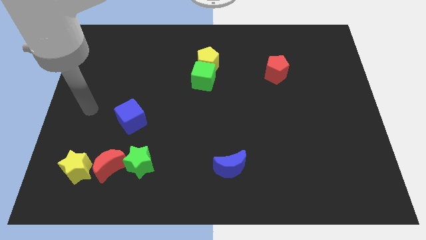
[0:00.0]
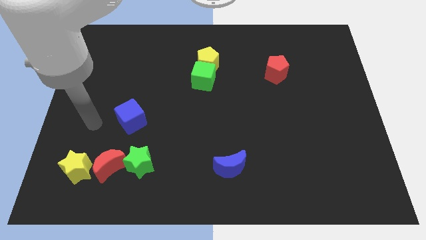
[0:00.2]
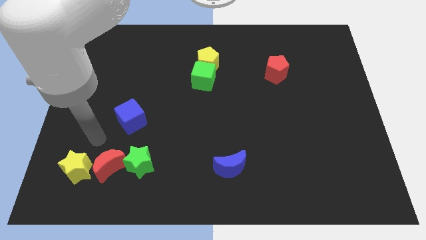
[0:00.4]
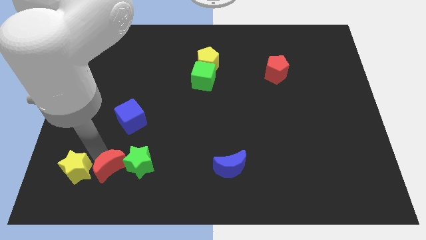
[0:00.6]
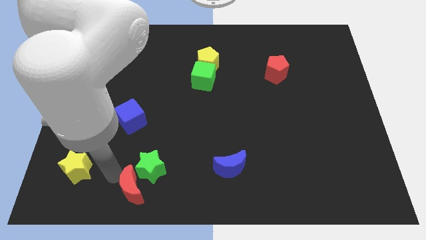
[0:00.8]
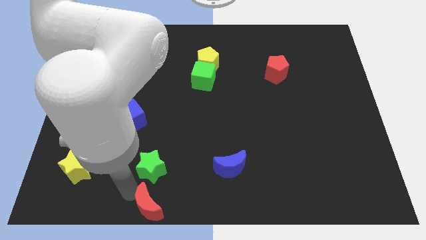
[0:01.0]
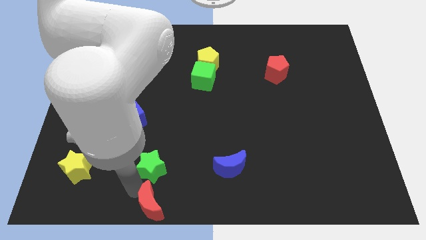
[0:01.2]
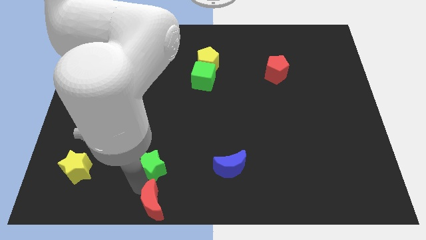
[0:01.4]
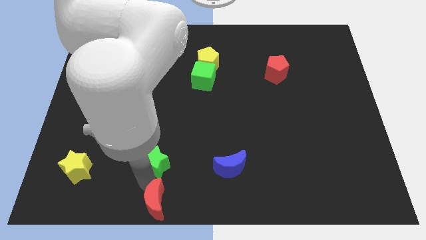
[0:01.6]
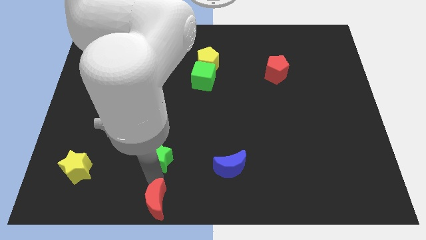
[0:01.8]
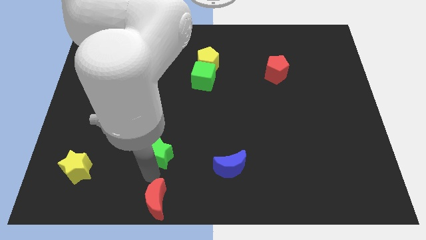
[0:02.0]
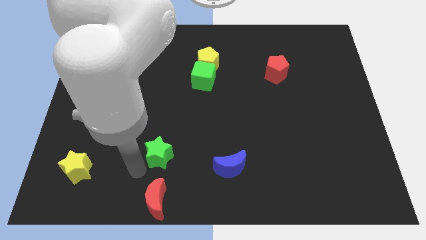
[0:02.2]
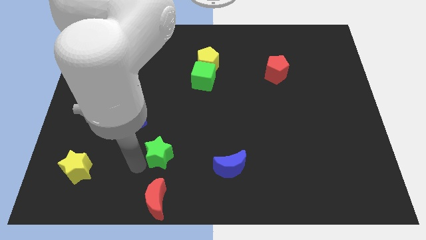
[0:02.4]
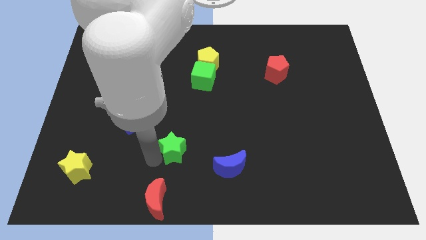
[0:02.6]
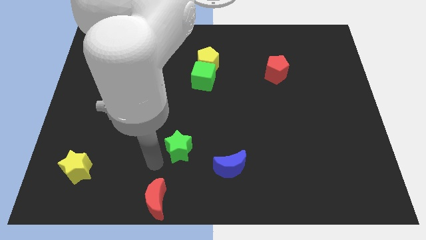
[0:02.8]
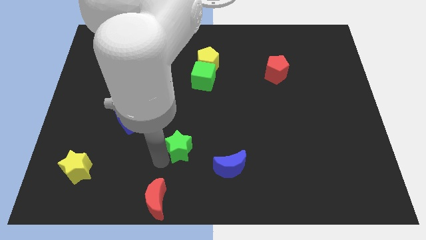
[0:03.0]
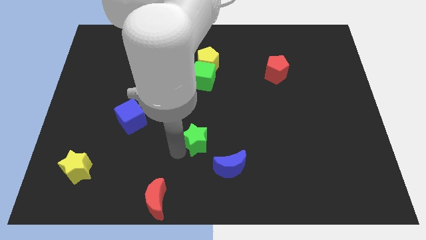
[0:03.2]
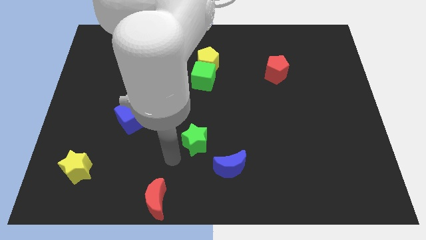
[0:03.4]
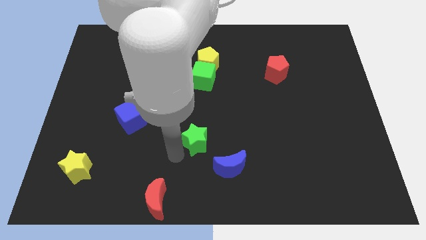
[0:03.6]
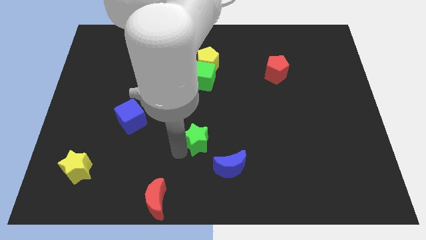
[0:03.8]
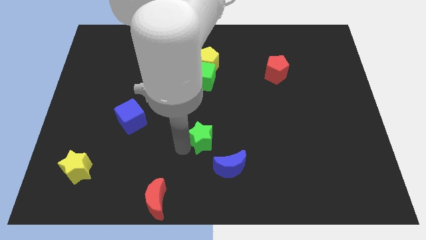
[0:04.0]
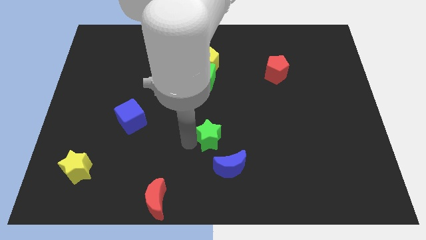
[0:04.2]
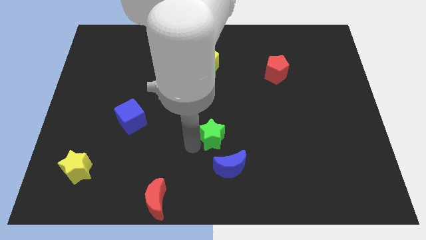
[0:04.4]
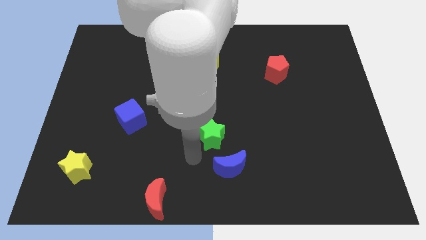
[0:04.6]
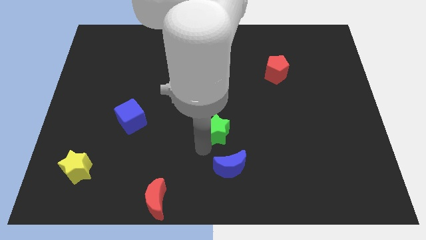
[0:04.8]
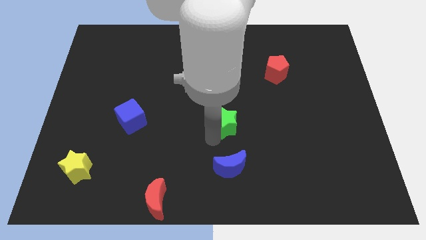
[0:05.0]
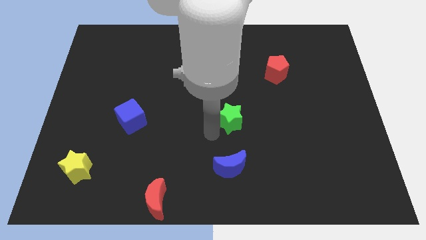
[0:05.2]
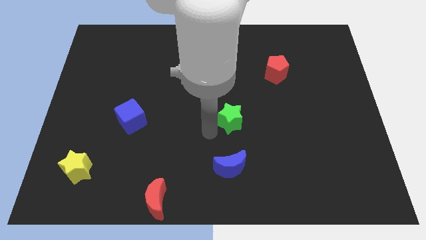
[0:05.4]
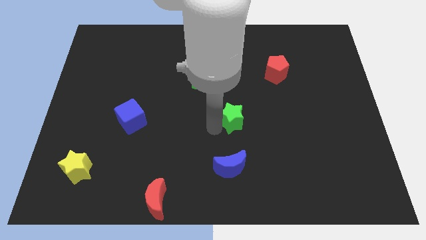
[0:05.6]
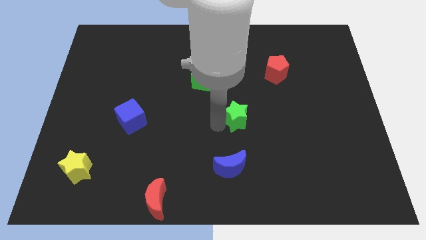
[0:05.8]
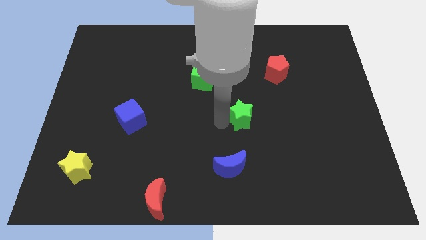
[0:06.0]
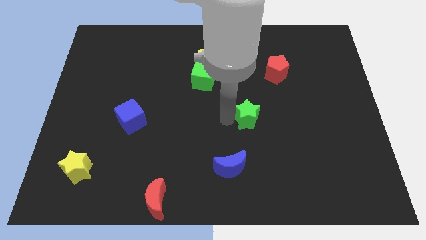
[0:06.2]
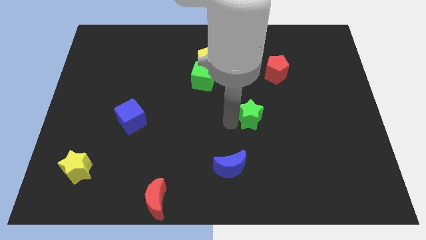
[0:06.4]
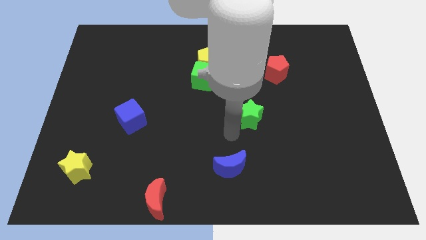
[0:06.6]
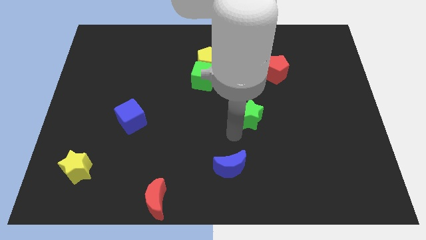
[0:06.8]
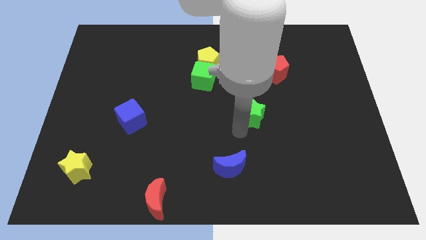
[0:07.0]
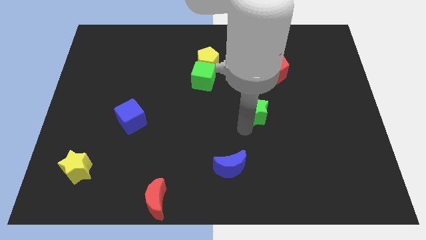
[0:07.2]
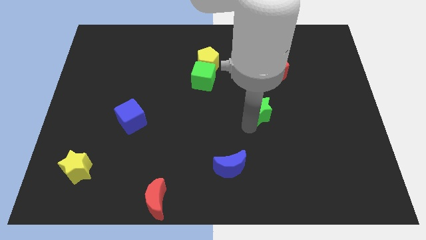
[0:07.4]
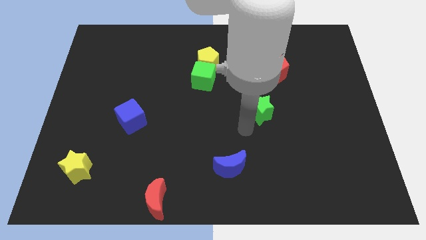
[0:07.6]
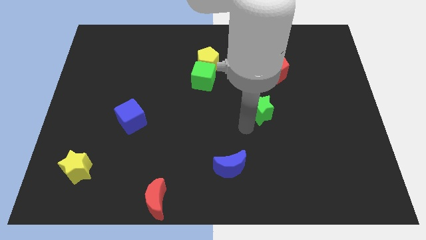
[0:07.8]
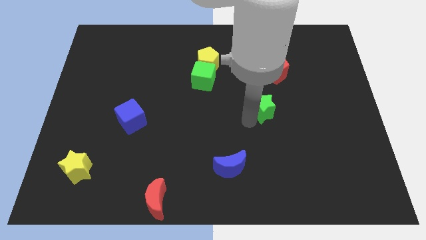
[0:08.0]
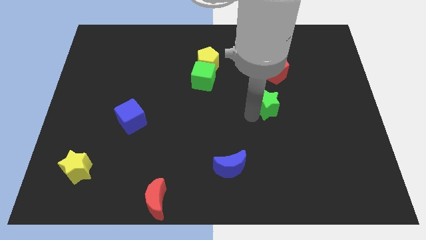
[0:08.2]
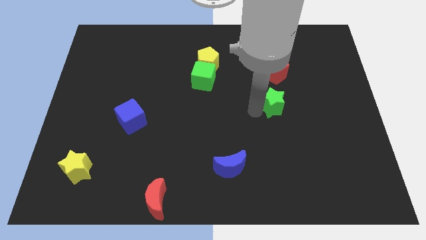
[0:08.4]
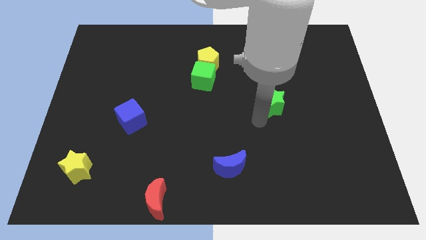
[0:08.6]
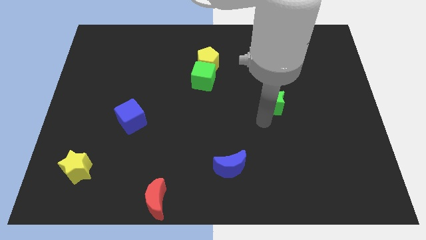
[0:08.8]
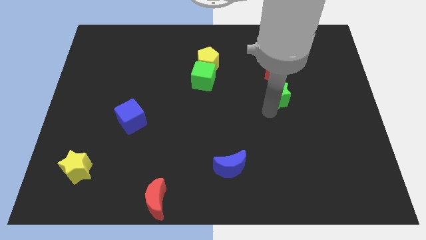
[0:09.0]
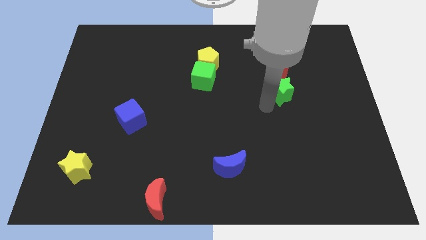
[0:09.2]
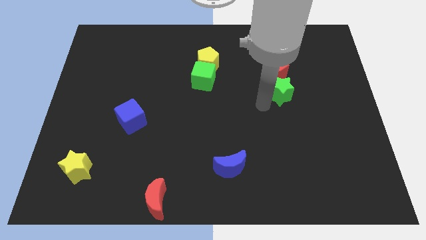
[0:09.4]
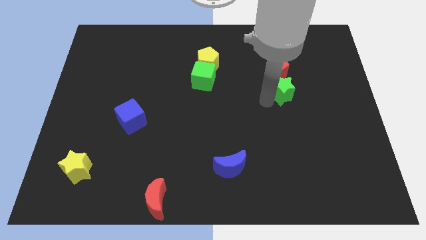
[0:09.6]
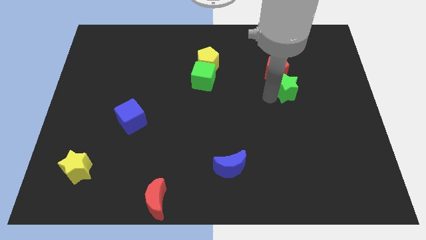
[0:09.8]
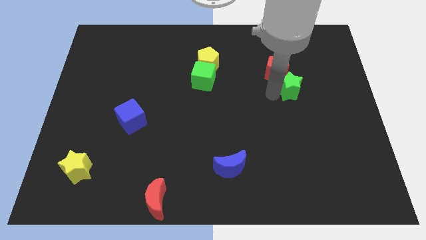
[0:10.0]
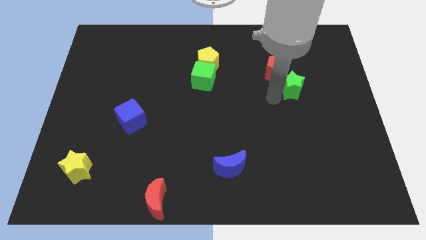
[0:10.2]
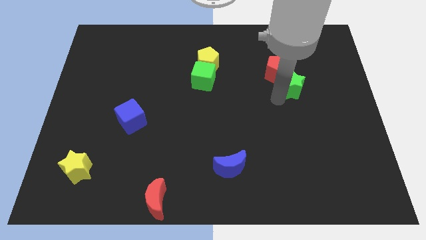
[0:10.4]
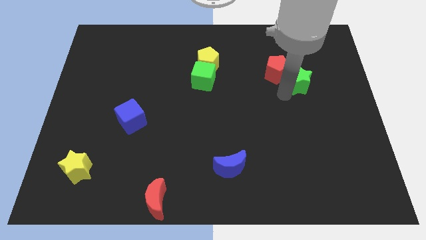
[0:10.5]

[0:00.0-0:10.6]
put the green star to the right of the red pentagon

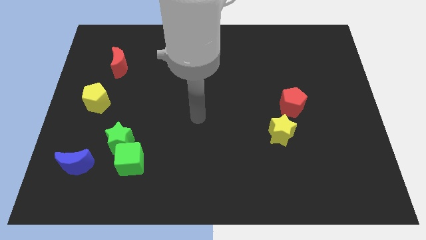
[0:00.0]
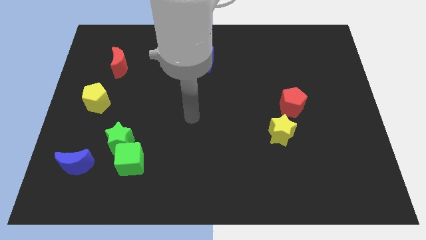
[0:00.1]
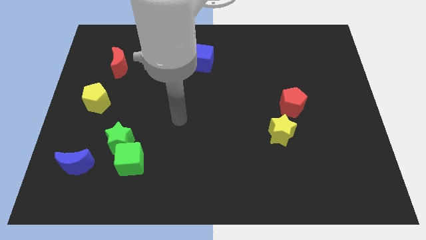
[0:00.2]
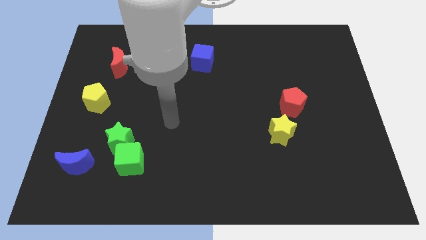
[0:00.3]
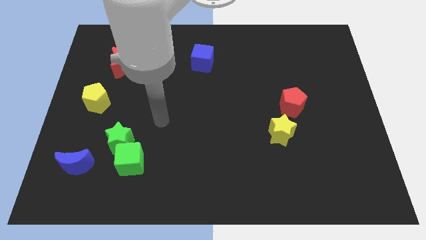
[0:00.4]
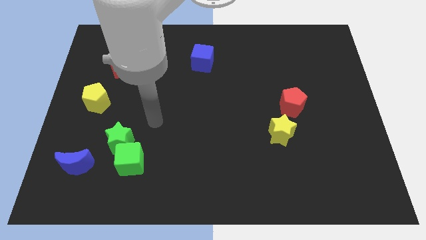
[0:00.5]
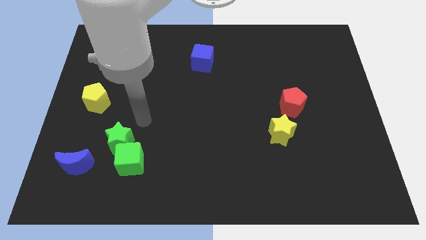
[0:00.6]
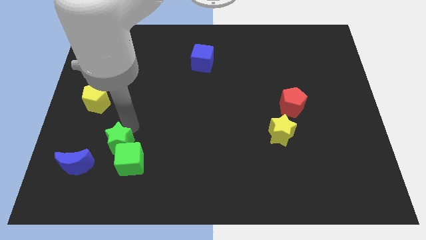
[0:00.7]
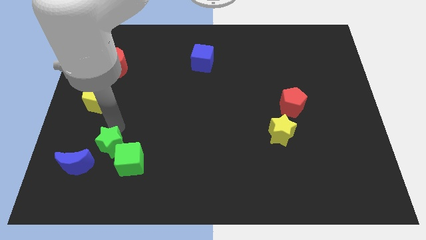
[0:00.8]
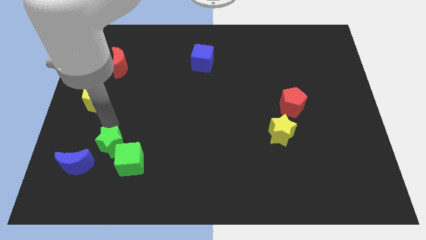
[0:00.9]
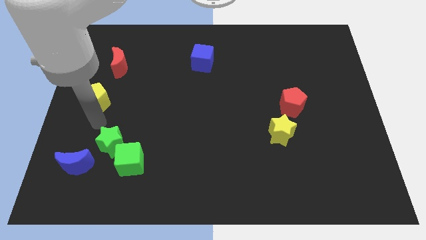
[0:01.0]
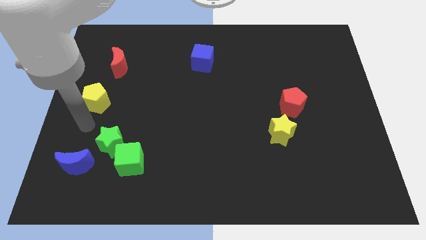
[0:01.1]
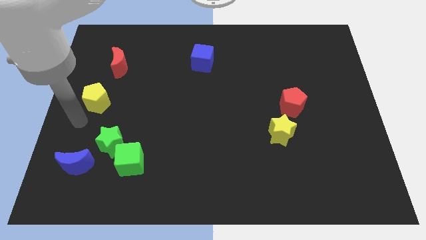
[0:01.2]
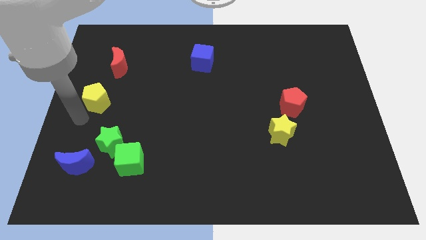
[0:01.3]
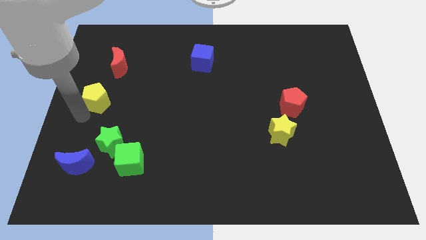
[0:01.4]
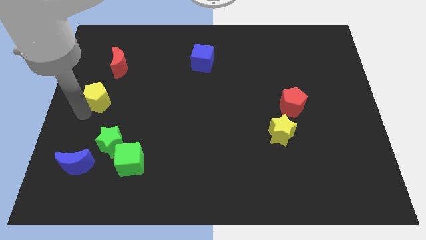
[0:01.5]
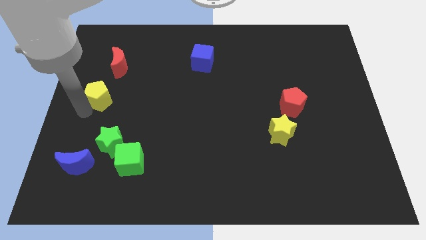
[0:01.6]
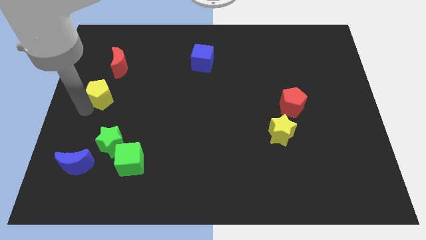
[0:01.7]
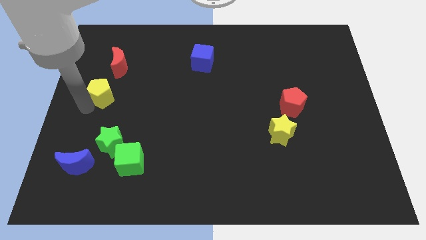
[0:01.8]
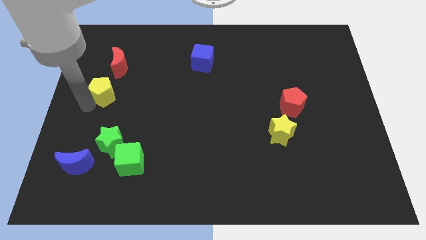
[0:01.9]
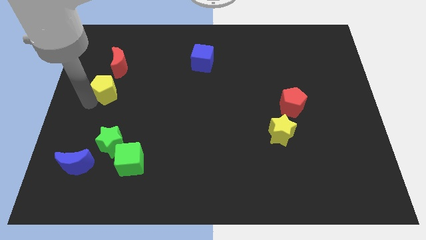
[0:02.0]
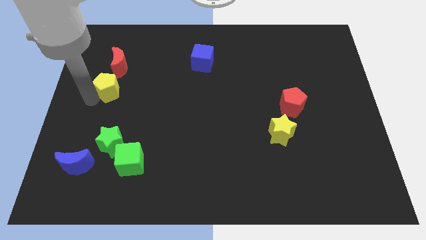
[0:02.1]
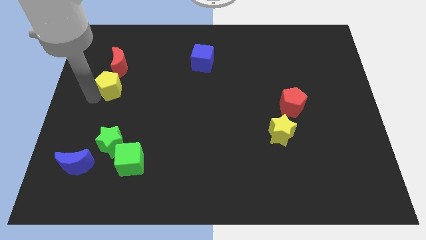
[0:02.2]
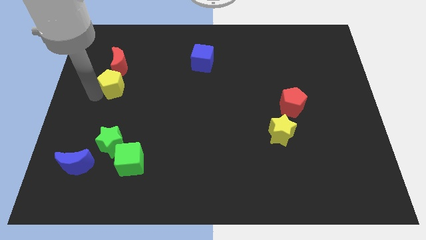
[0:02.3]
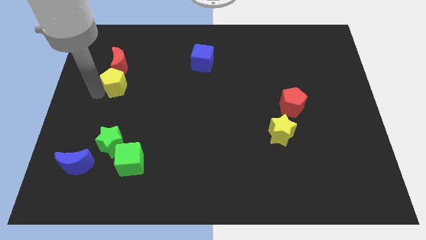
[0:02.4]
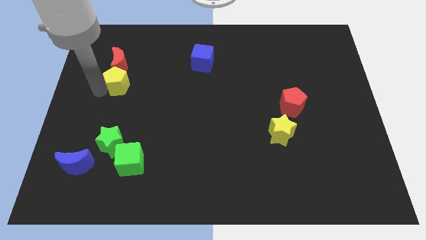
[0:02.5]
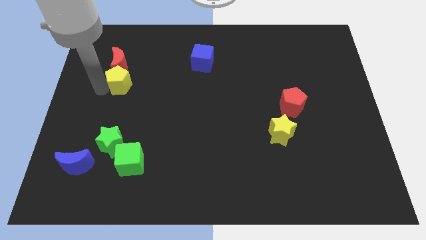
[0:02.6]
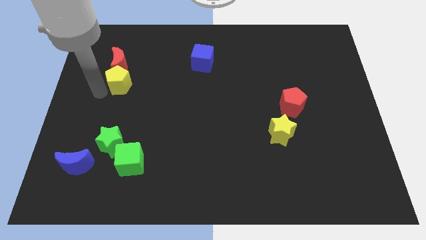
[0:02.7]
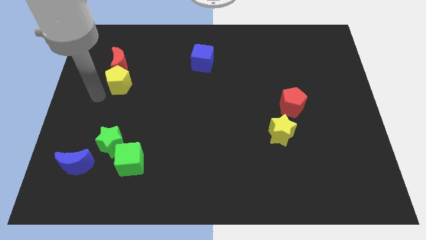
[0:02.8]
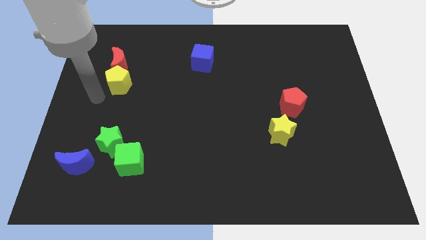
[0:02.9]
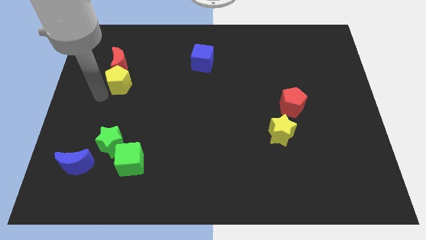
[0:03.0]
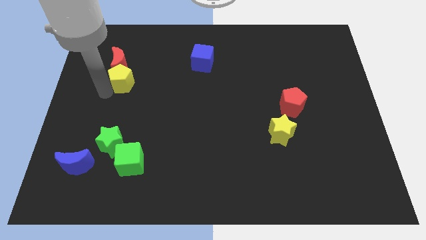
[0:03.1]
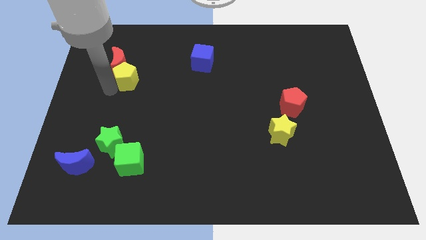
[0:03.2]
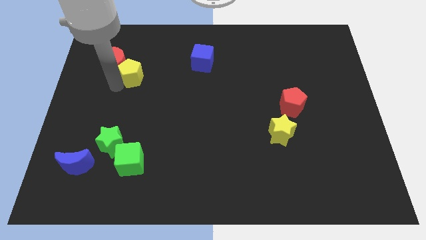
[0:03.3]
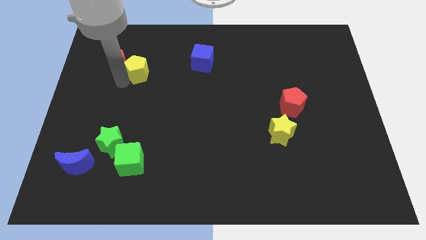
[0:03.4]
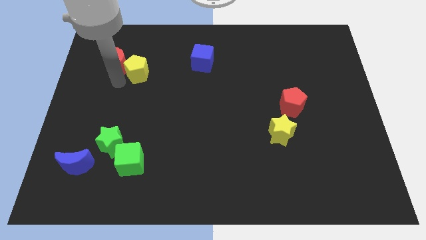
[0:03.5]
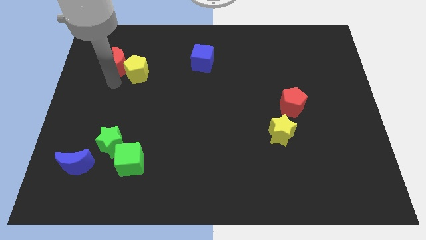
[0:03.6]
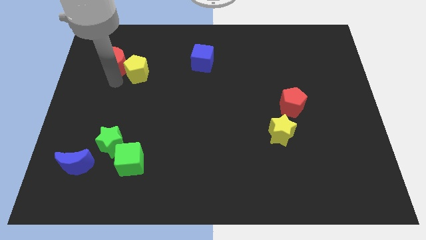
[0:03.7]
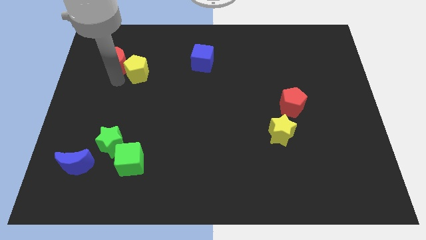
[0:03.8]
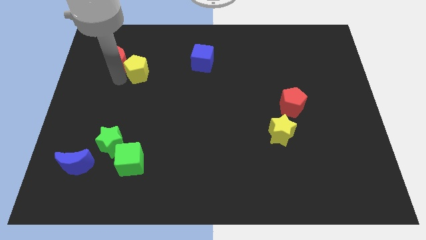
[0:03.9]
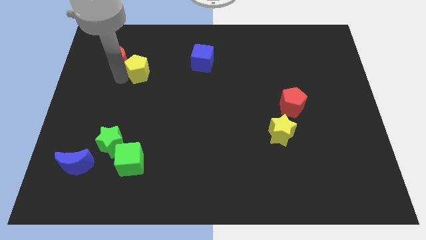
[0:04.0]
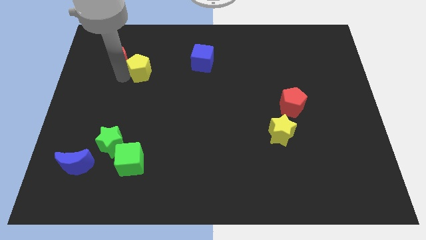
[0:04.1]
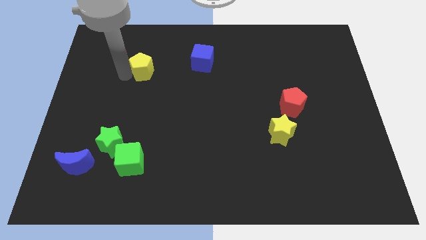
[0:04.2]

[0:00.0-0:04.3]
push the yellow pentagon to the left side of the blue cube
